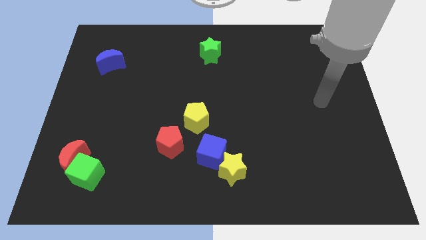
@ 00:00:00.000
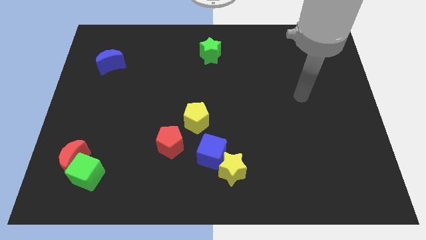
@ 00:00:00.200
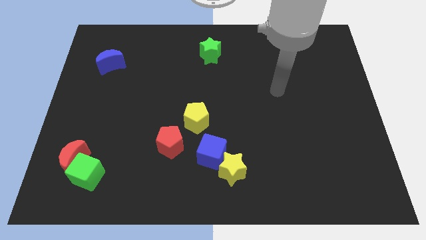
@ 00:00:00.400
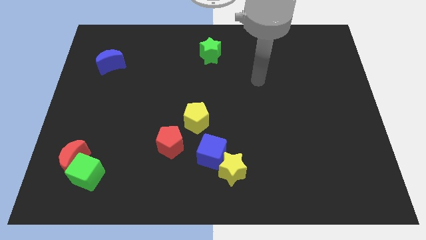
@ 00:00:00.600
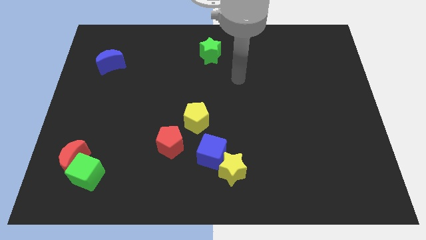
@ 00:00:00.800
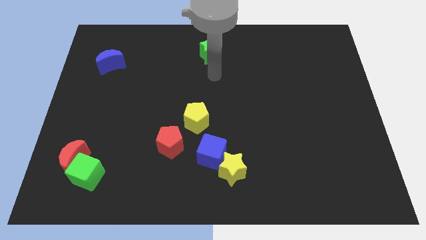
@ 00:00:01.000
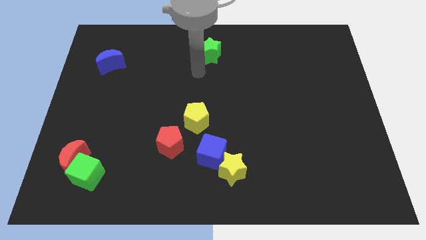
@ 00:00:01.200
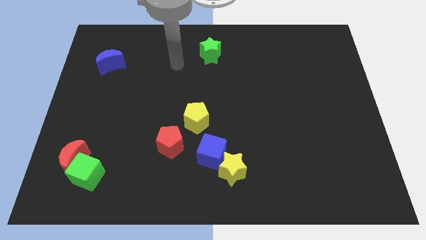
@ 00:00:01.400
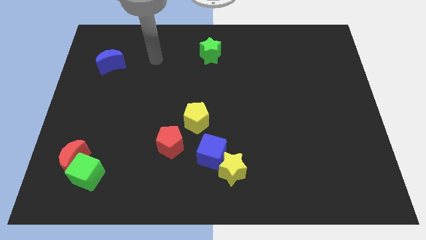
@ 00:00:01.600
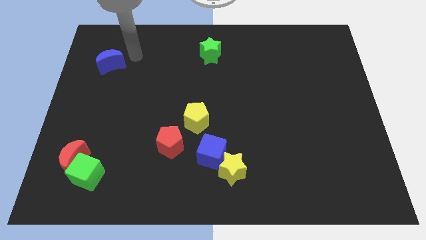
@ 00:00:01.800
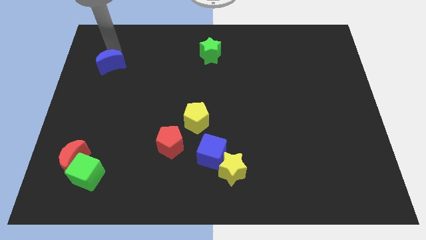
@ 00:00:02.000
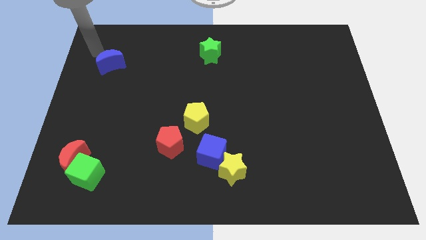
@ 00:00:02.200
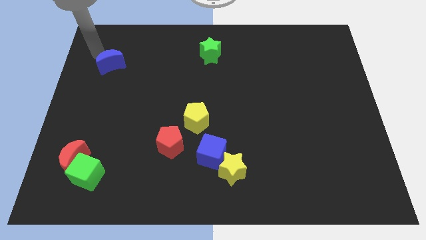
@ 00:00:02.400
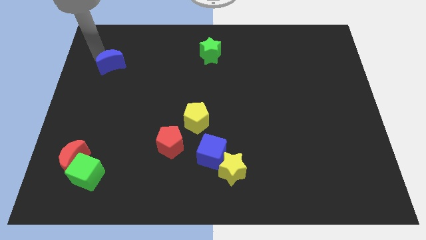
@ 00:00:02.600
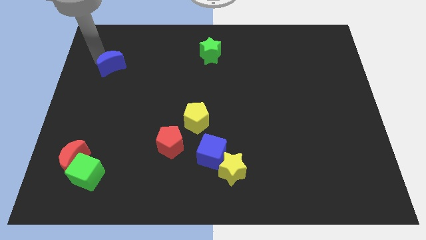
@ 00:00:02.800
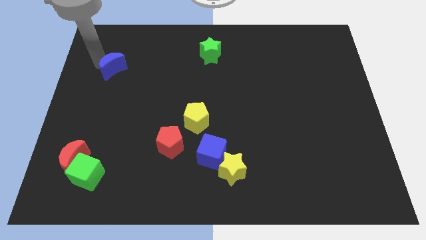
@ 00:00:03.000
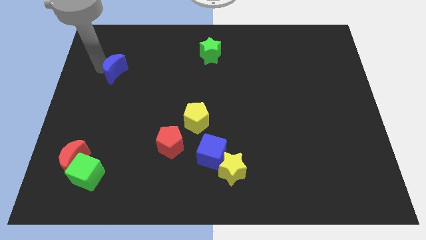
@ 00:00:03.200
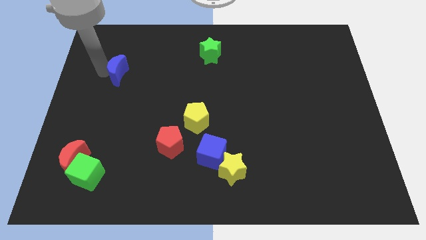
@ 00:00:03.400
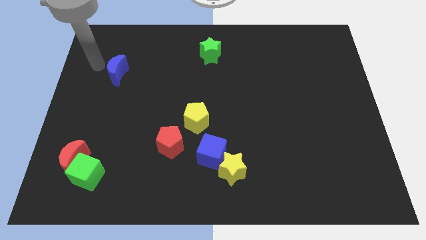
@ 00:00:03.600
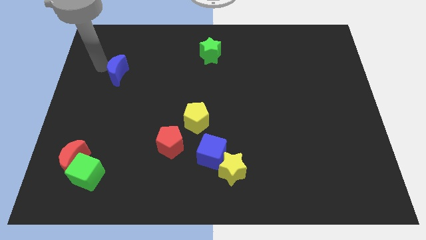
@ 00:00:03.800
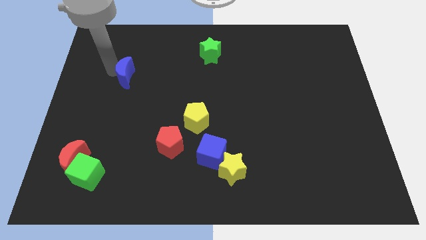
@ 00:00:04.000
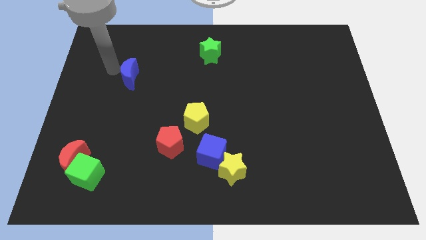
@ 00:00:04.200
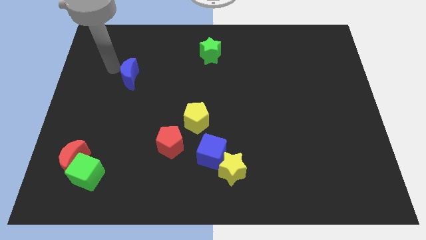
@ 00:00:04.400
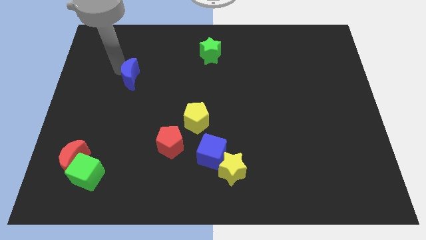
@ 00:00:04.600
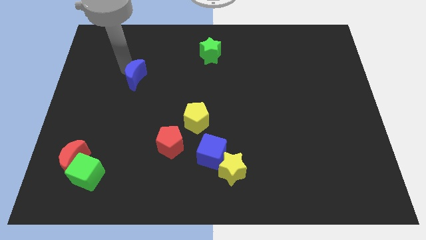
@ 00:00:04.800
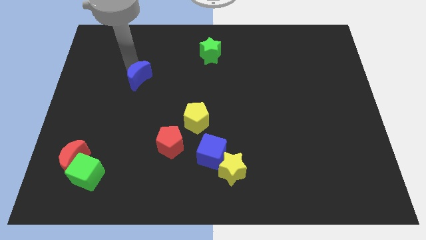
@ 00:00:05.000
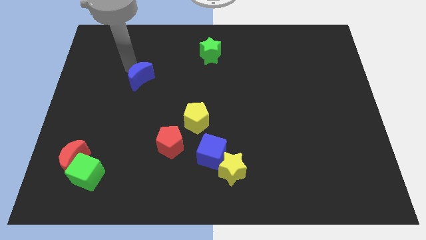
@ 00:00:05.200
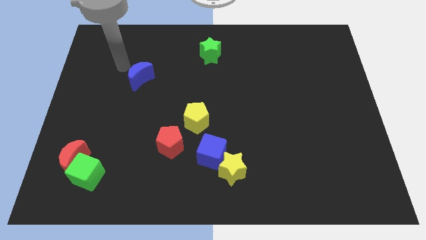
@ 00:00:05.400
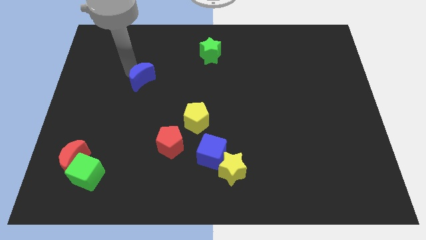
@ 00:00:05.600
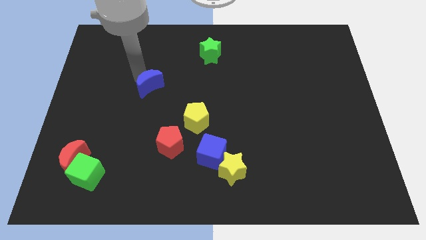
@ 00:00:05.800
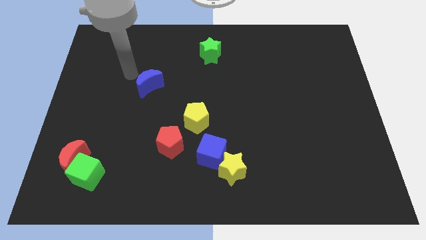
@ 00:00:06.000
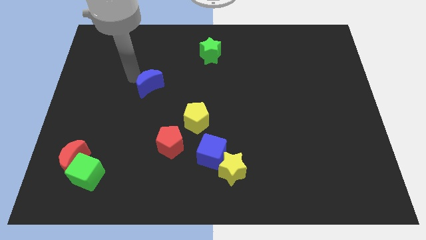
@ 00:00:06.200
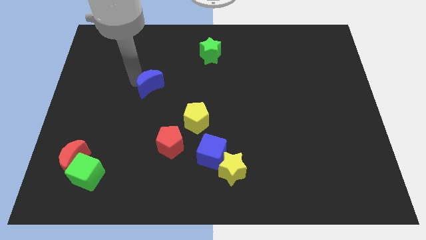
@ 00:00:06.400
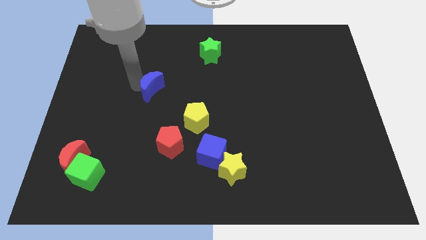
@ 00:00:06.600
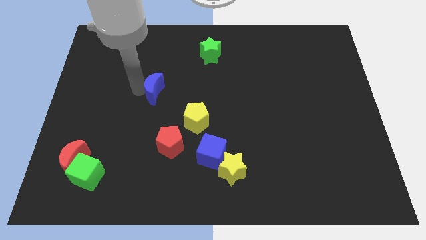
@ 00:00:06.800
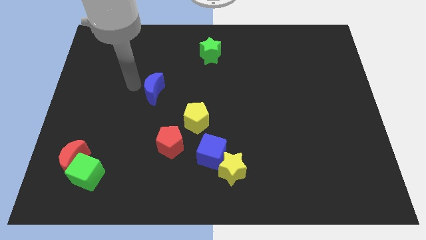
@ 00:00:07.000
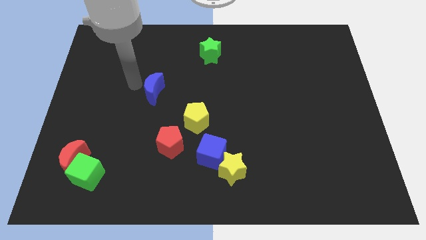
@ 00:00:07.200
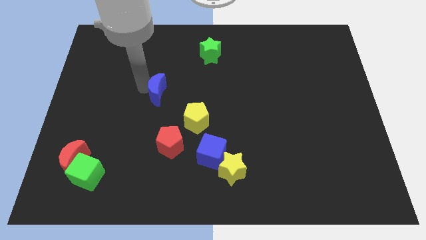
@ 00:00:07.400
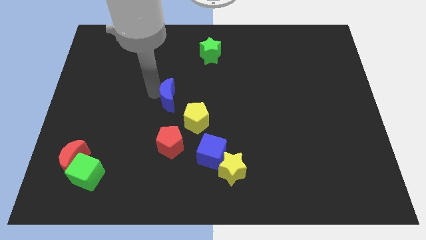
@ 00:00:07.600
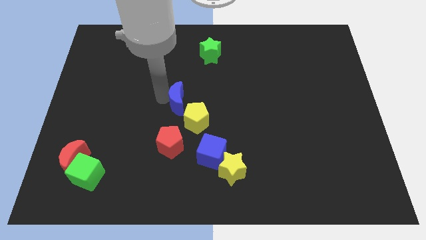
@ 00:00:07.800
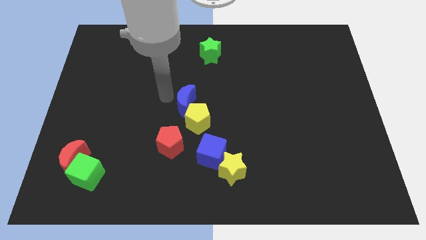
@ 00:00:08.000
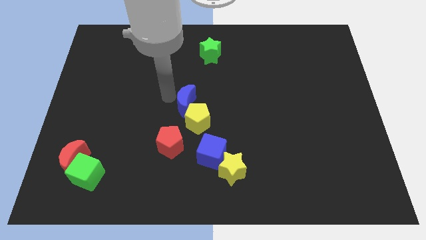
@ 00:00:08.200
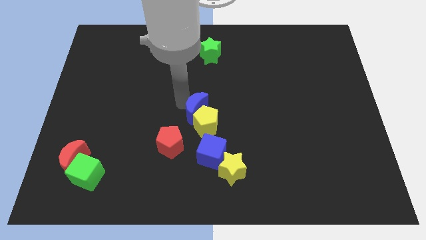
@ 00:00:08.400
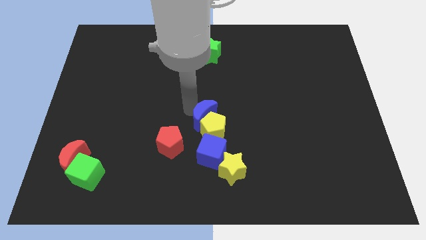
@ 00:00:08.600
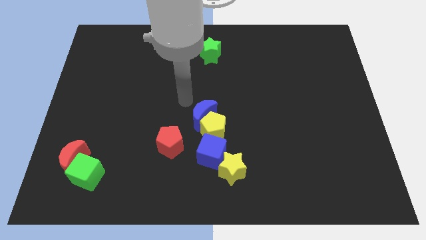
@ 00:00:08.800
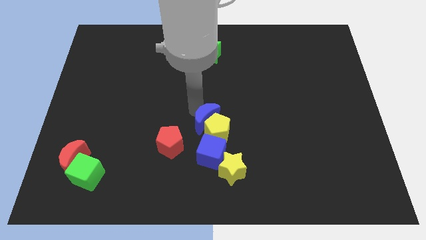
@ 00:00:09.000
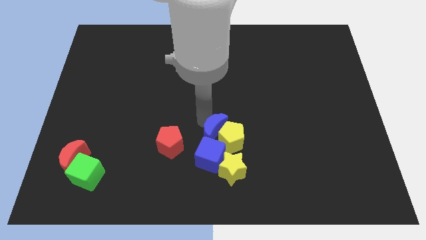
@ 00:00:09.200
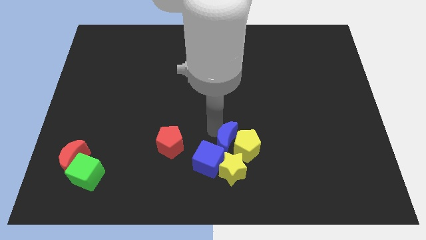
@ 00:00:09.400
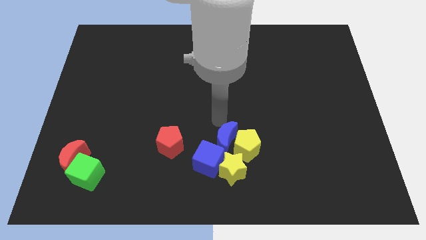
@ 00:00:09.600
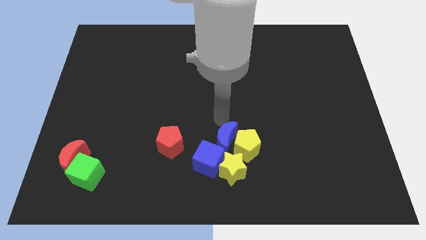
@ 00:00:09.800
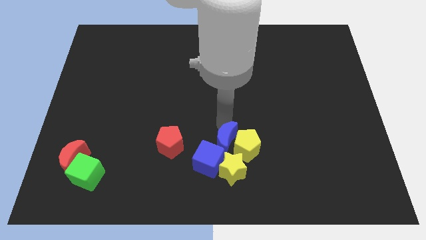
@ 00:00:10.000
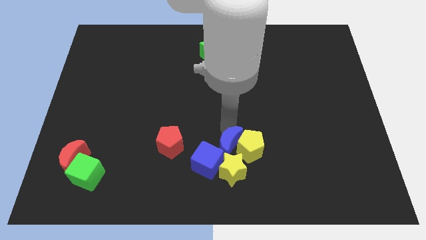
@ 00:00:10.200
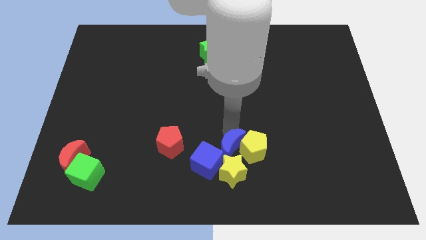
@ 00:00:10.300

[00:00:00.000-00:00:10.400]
slide the blue moon close to the yellow star

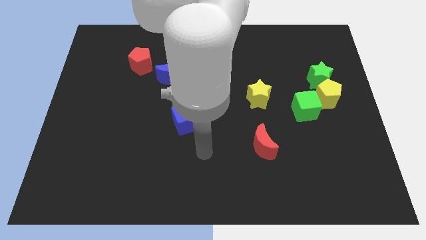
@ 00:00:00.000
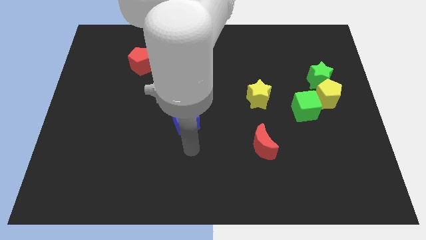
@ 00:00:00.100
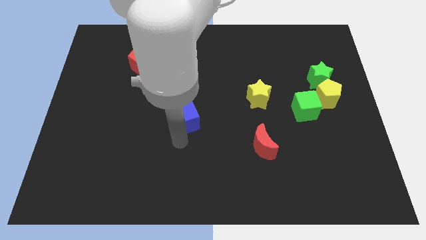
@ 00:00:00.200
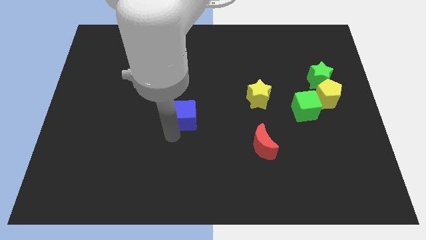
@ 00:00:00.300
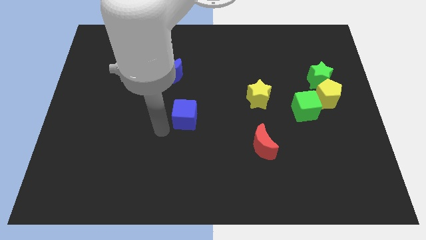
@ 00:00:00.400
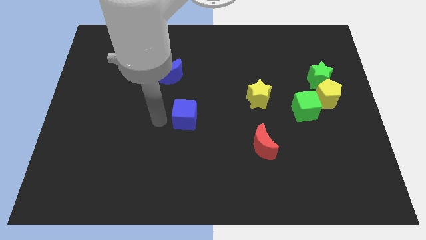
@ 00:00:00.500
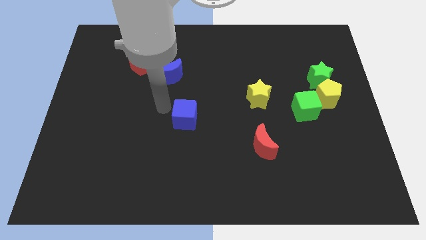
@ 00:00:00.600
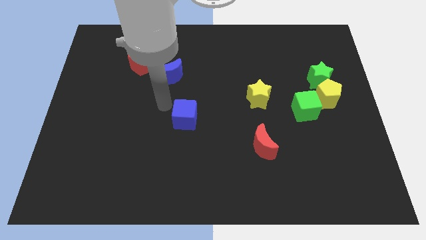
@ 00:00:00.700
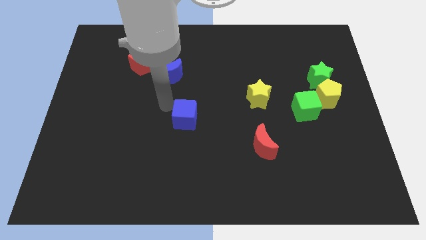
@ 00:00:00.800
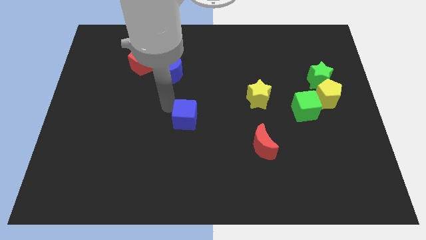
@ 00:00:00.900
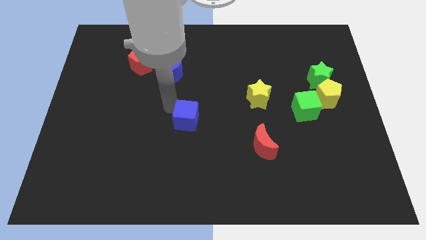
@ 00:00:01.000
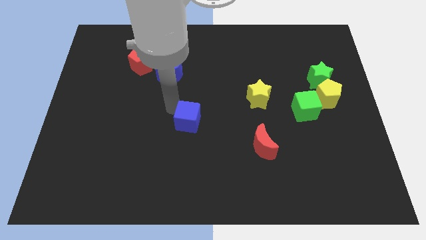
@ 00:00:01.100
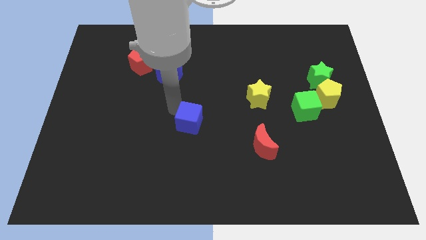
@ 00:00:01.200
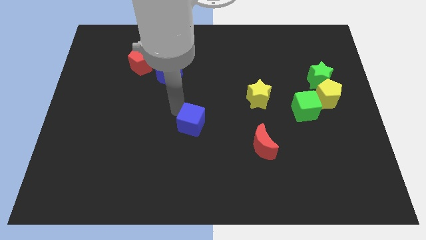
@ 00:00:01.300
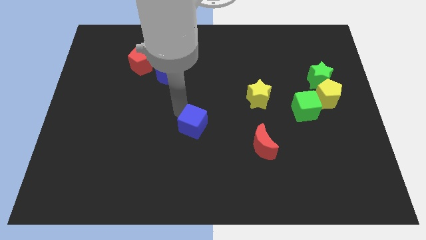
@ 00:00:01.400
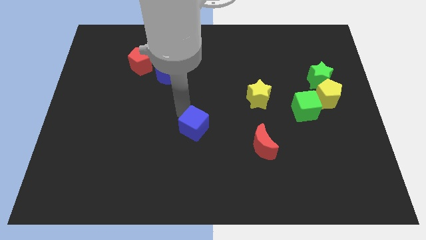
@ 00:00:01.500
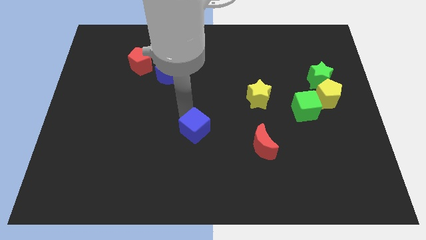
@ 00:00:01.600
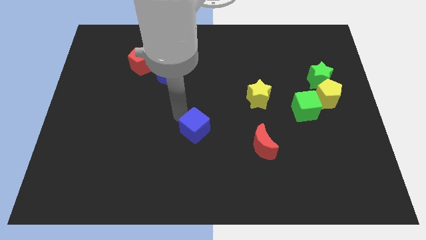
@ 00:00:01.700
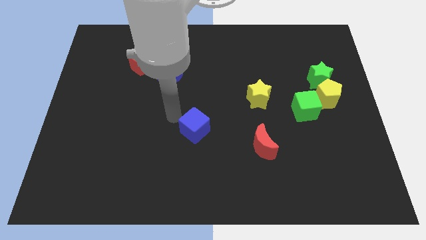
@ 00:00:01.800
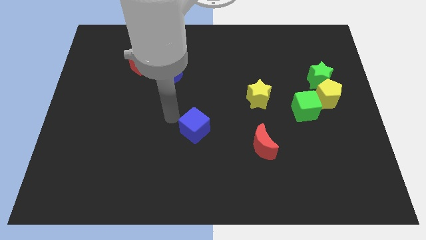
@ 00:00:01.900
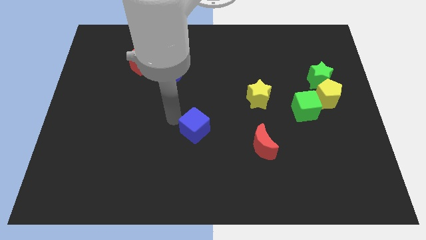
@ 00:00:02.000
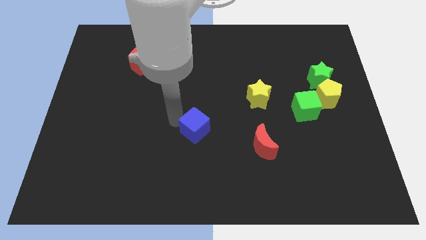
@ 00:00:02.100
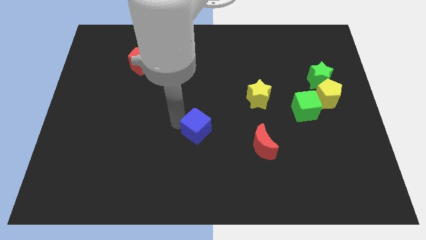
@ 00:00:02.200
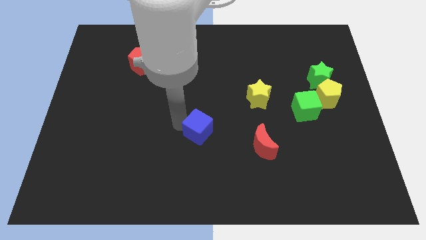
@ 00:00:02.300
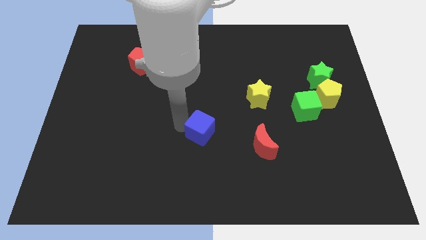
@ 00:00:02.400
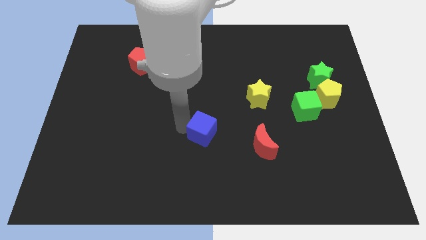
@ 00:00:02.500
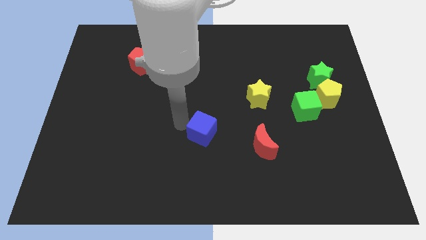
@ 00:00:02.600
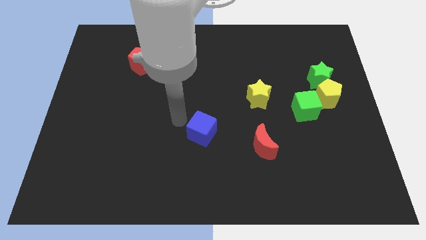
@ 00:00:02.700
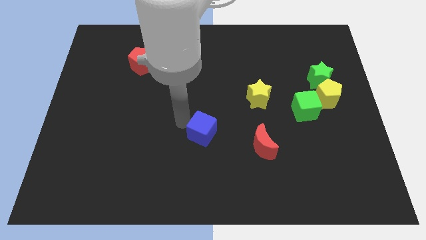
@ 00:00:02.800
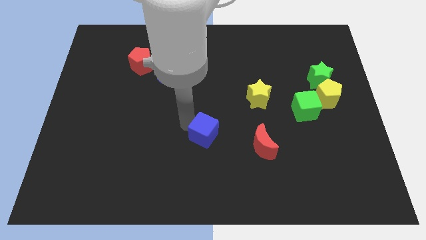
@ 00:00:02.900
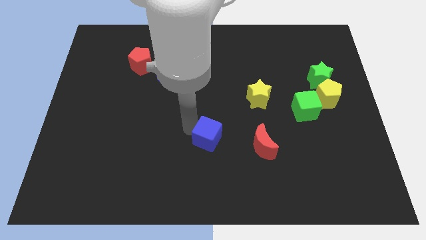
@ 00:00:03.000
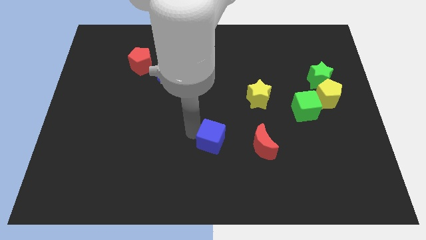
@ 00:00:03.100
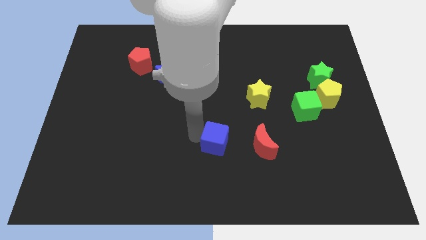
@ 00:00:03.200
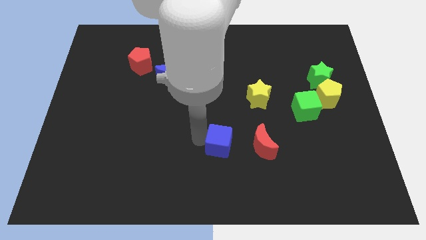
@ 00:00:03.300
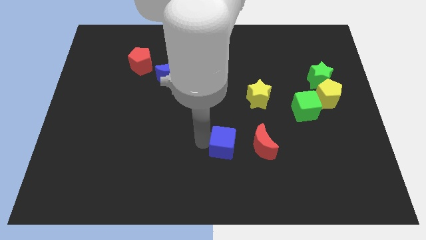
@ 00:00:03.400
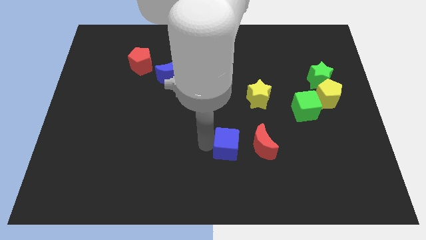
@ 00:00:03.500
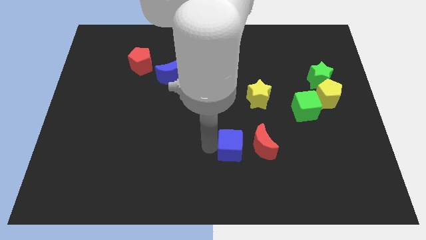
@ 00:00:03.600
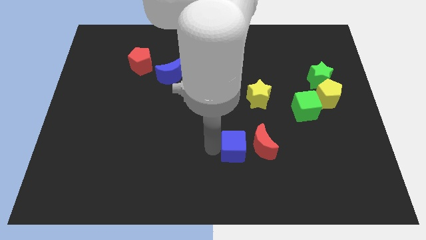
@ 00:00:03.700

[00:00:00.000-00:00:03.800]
push the blue cube close to the red moon
